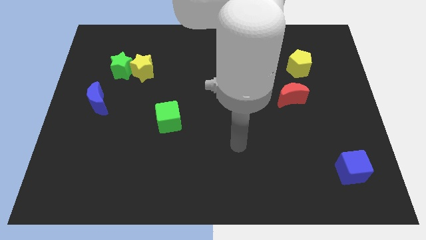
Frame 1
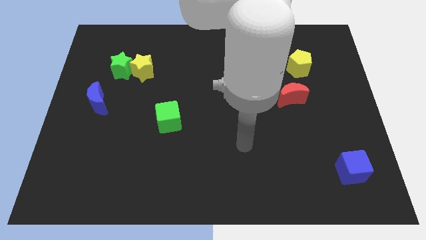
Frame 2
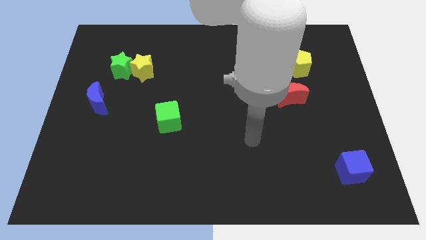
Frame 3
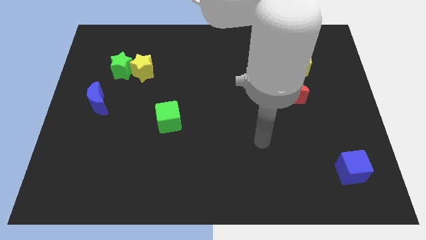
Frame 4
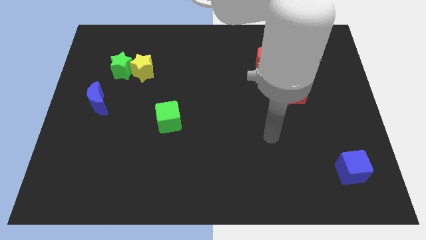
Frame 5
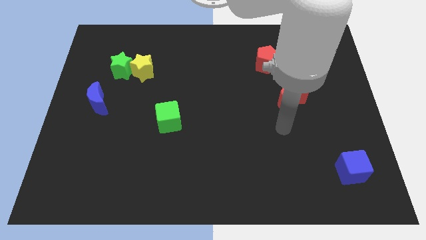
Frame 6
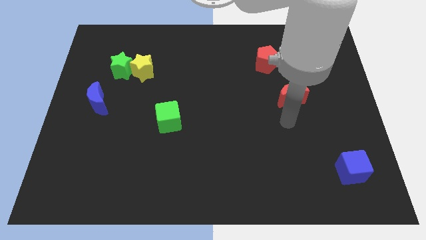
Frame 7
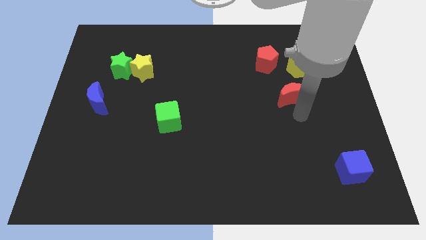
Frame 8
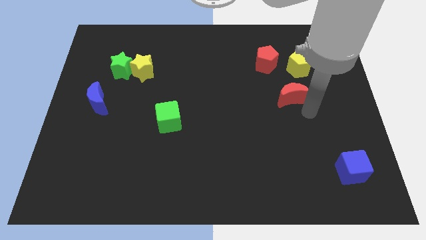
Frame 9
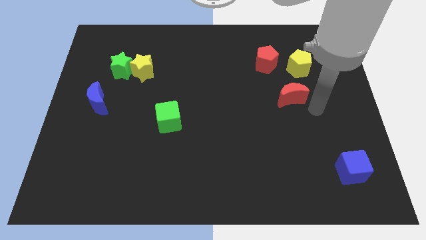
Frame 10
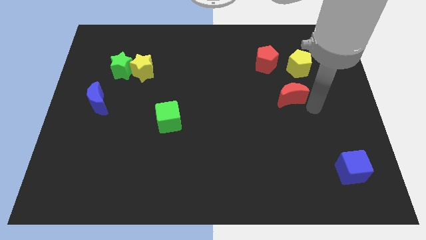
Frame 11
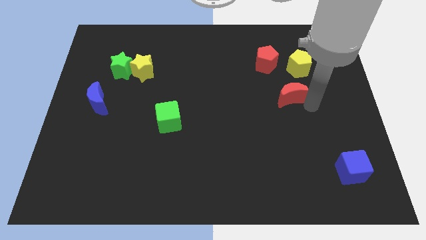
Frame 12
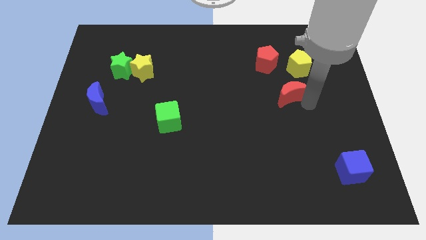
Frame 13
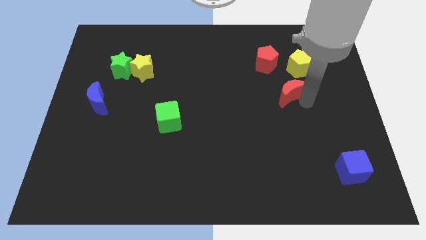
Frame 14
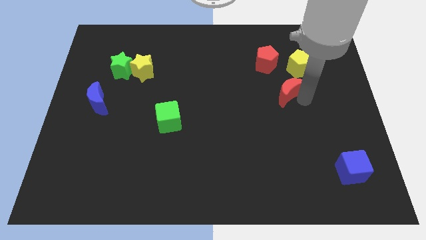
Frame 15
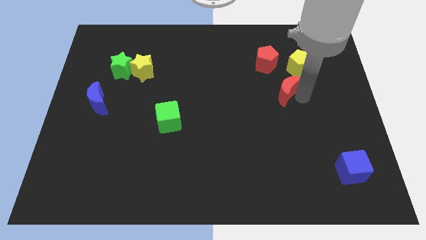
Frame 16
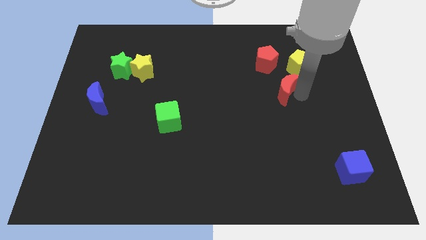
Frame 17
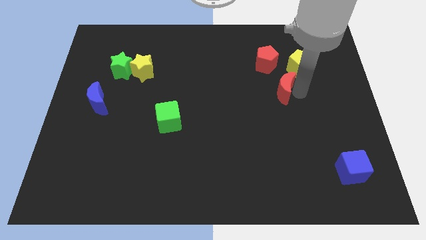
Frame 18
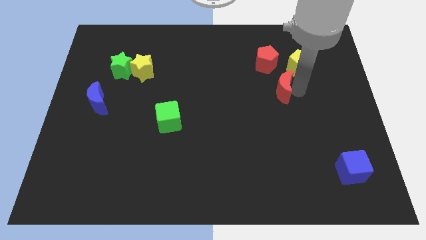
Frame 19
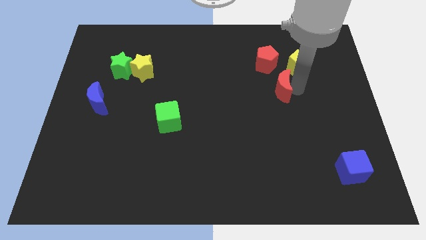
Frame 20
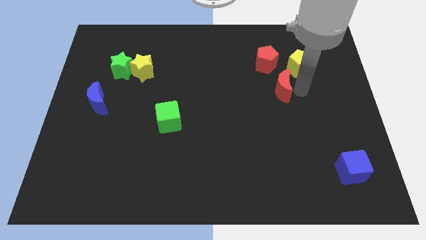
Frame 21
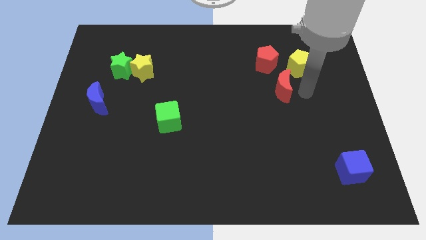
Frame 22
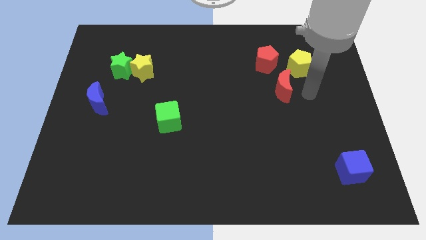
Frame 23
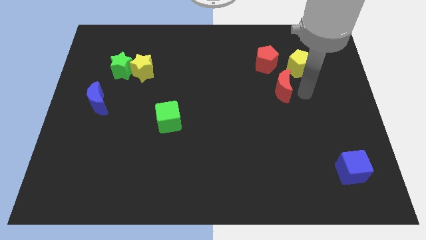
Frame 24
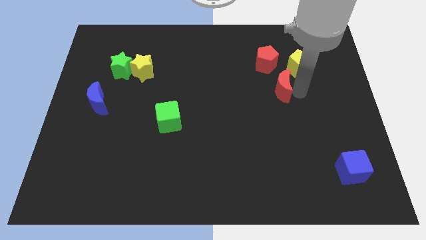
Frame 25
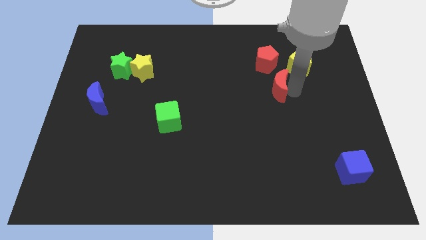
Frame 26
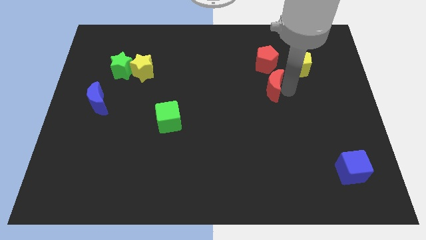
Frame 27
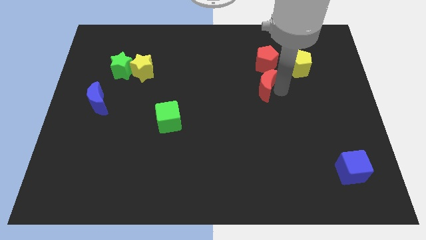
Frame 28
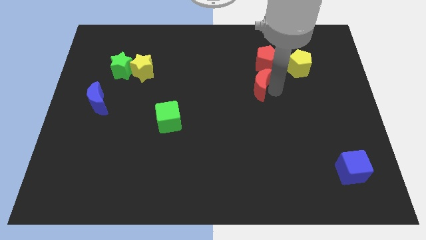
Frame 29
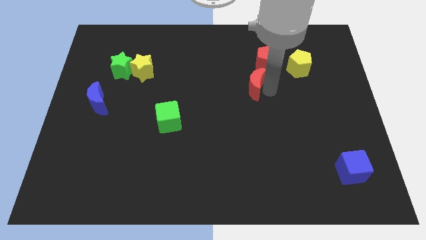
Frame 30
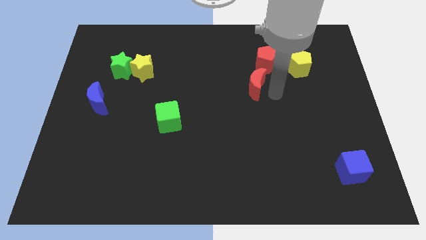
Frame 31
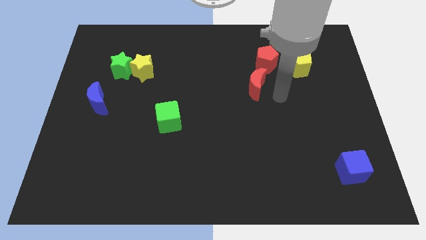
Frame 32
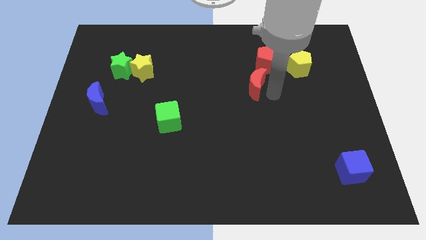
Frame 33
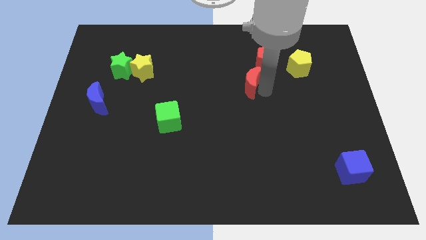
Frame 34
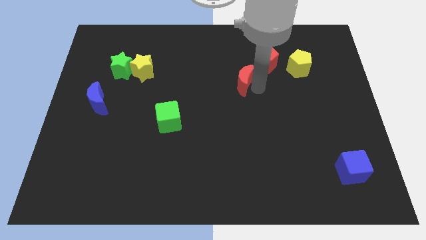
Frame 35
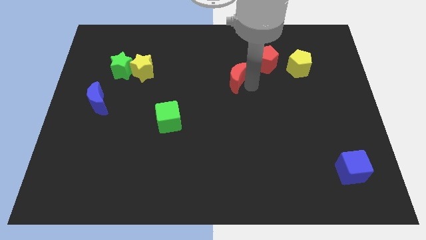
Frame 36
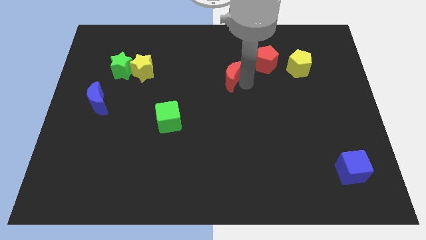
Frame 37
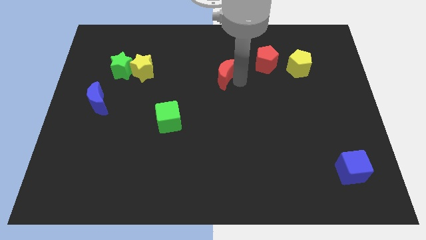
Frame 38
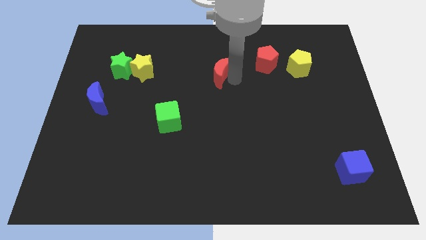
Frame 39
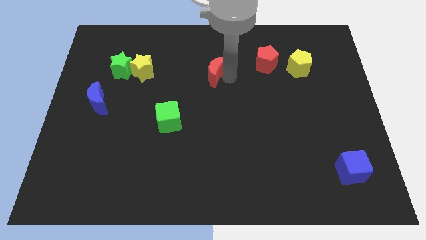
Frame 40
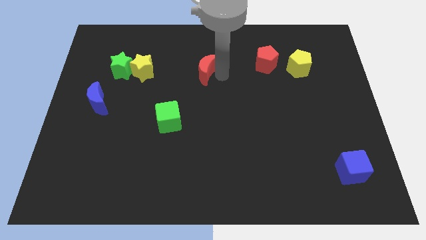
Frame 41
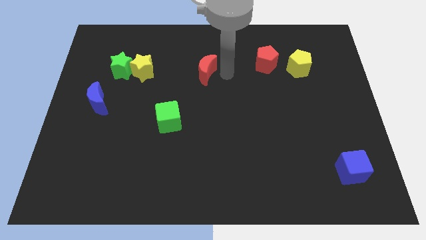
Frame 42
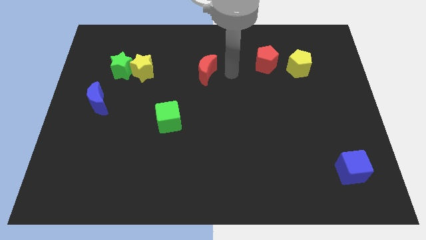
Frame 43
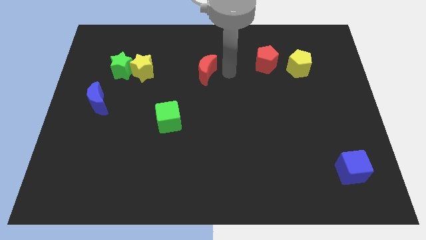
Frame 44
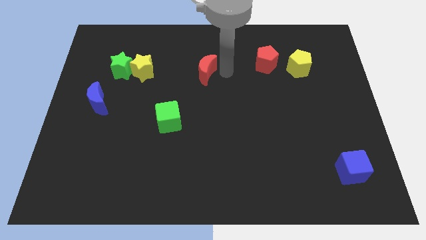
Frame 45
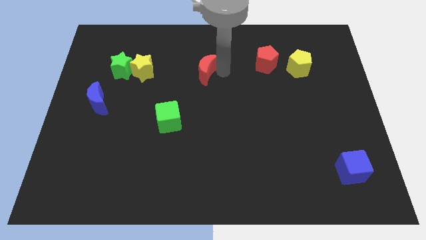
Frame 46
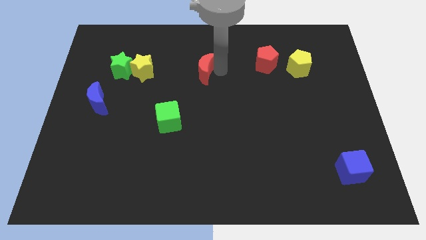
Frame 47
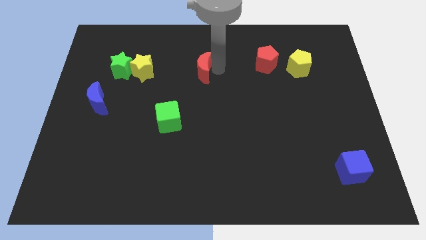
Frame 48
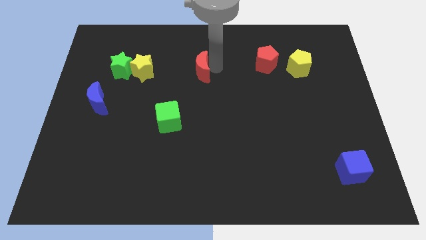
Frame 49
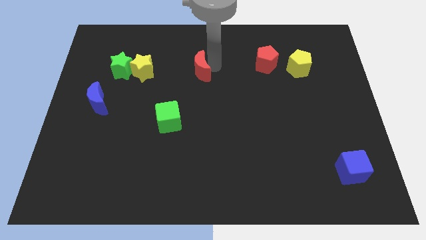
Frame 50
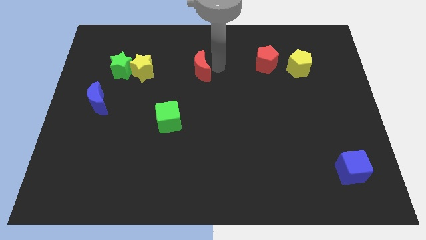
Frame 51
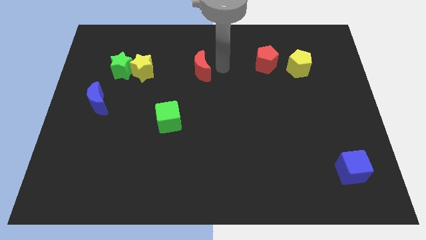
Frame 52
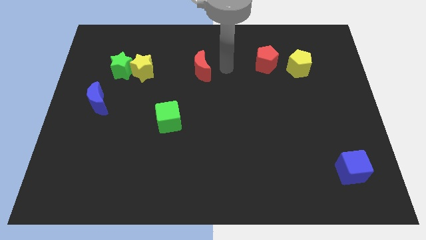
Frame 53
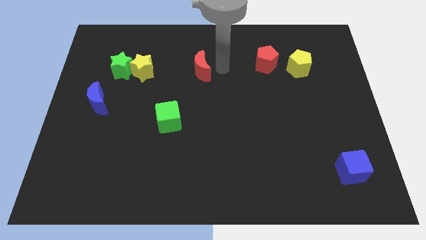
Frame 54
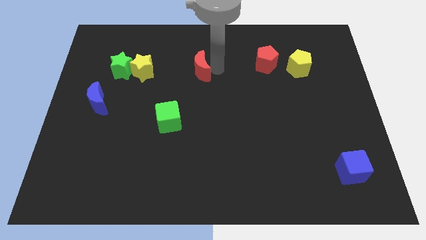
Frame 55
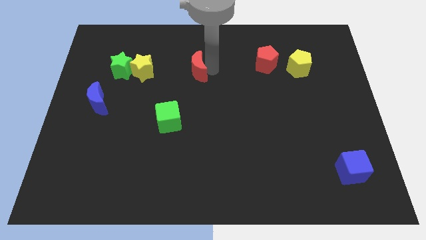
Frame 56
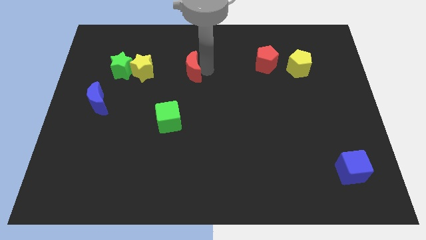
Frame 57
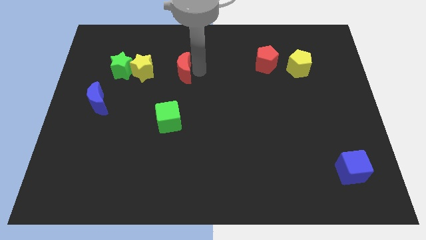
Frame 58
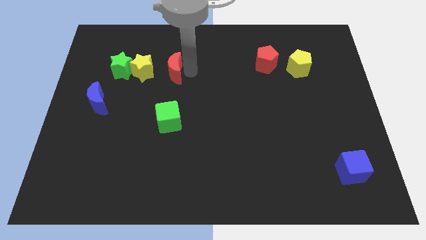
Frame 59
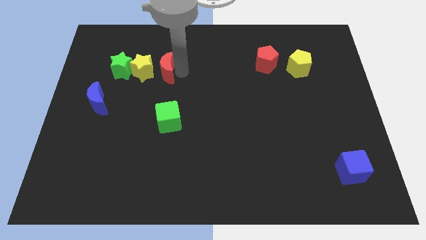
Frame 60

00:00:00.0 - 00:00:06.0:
put the red moon towards the yellow star

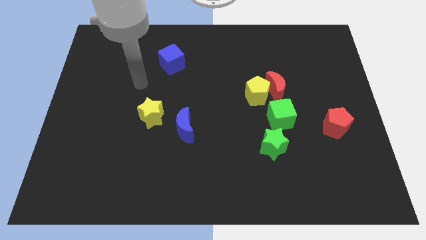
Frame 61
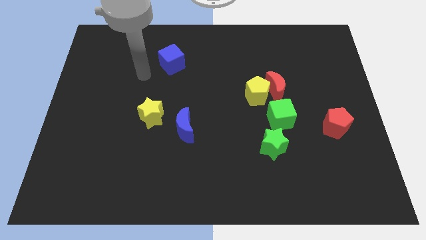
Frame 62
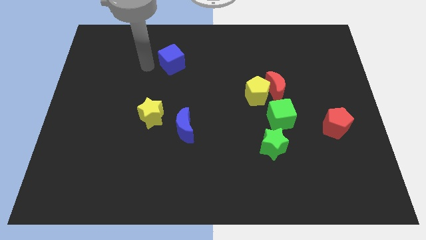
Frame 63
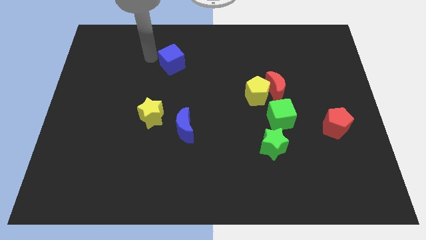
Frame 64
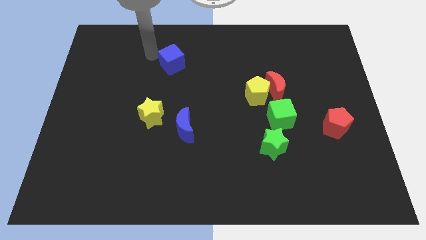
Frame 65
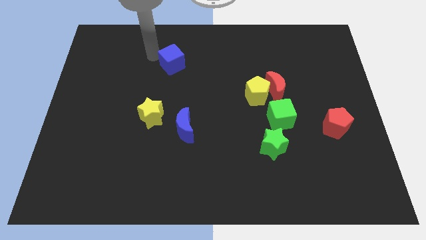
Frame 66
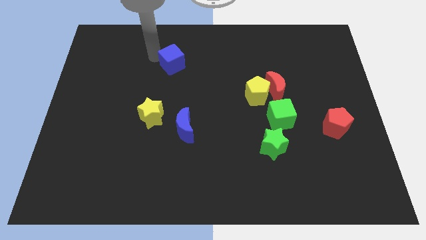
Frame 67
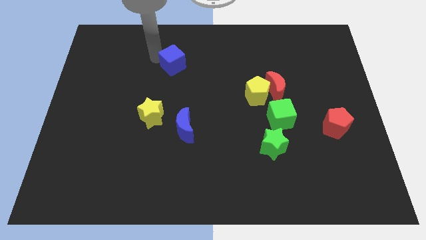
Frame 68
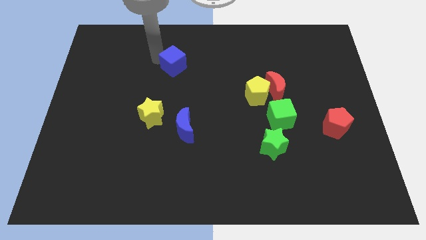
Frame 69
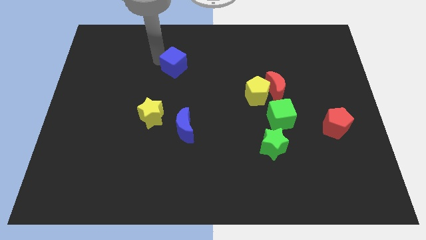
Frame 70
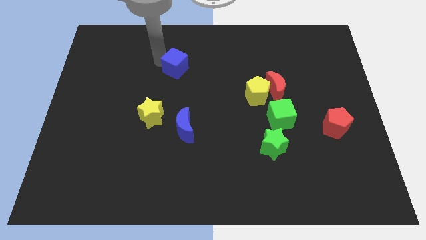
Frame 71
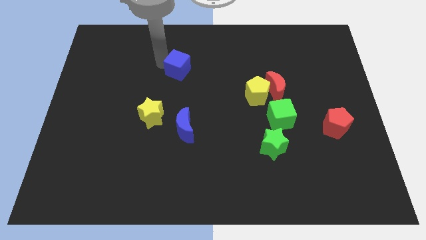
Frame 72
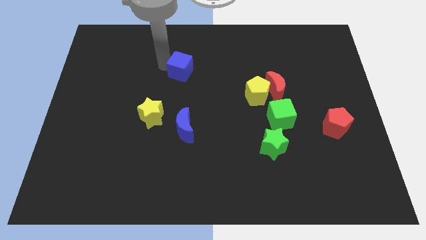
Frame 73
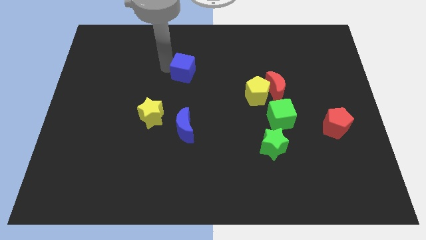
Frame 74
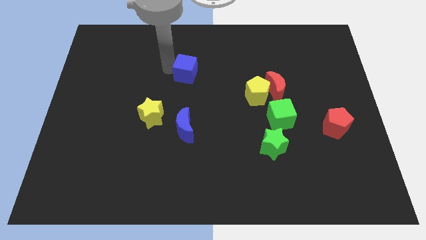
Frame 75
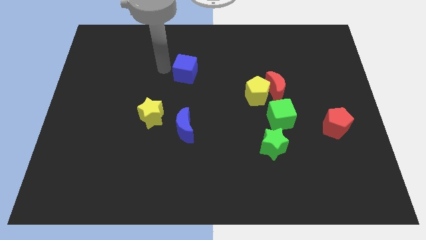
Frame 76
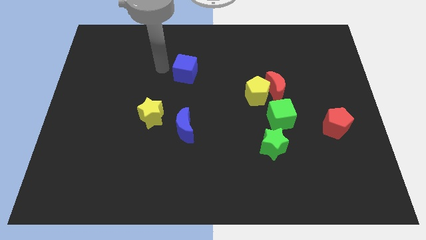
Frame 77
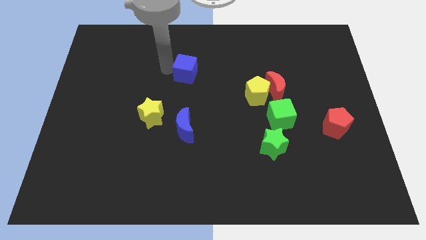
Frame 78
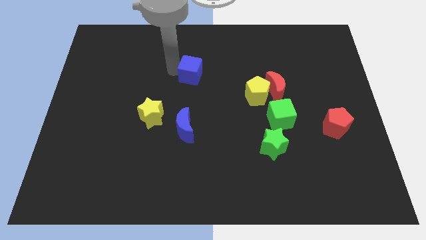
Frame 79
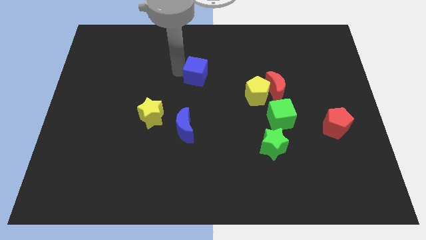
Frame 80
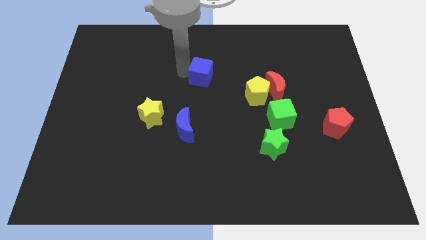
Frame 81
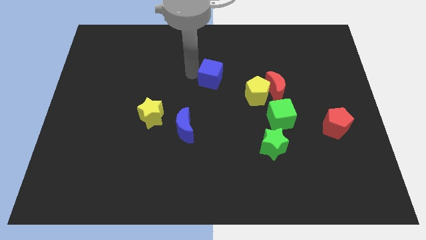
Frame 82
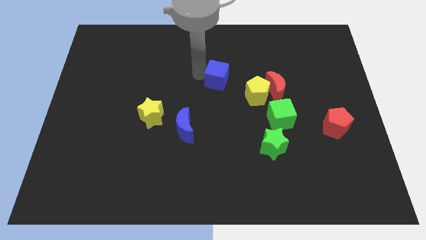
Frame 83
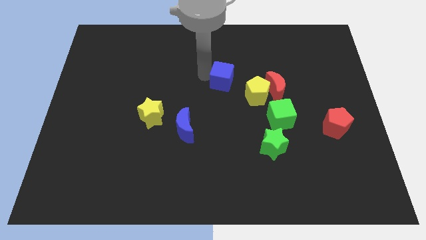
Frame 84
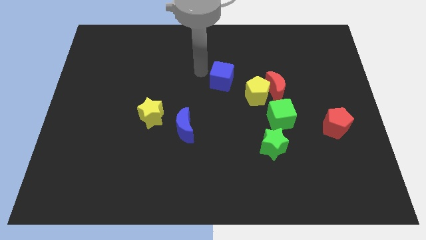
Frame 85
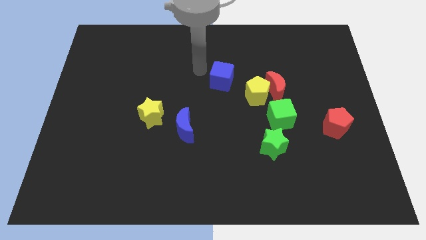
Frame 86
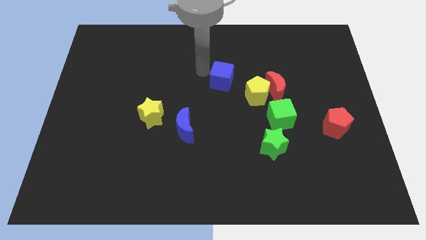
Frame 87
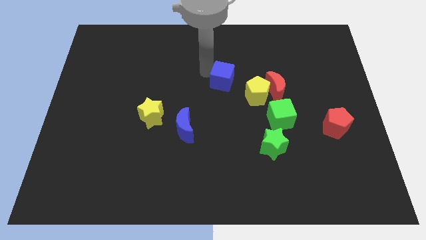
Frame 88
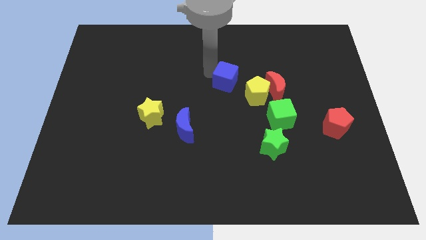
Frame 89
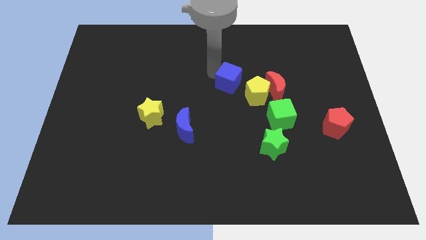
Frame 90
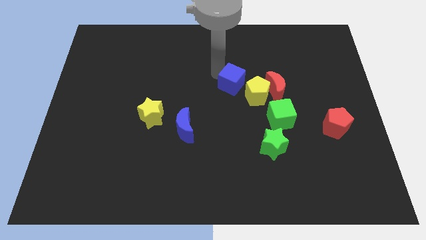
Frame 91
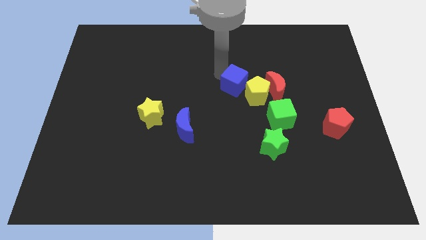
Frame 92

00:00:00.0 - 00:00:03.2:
slide the blue cube close to the yellow pentagon
